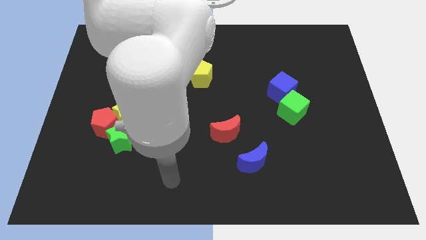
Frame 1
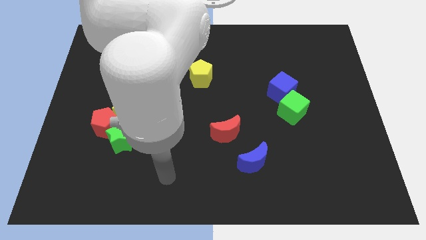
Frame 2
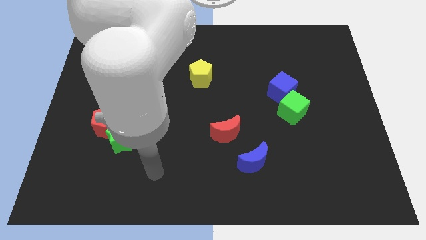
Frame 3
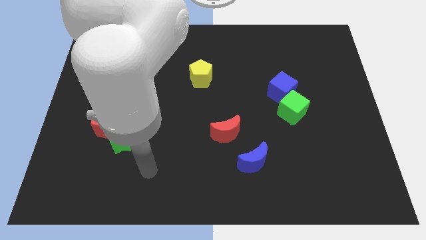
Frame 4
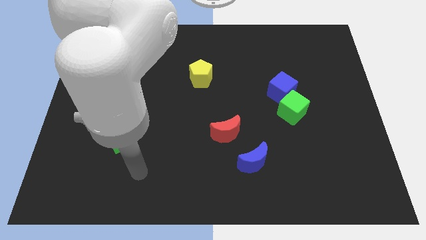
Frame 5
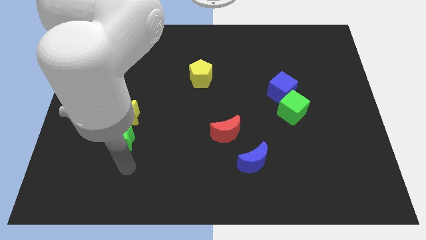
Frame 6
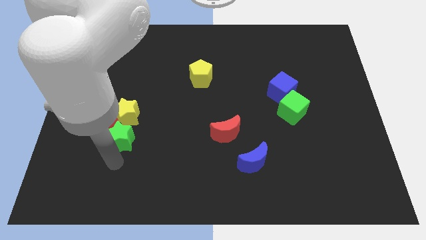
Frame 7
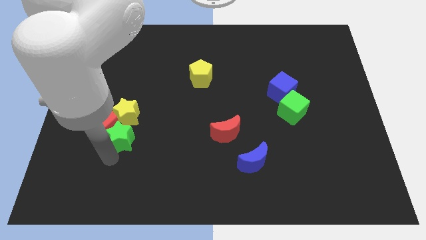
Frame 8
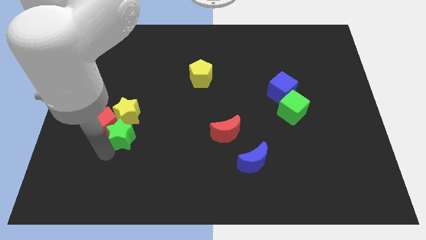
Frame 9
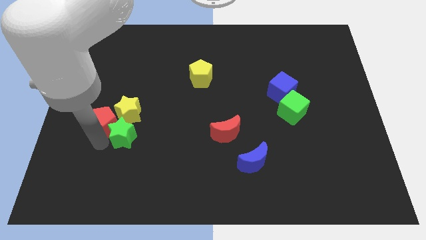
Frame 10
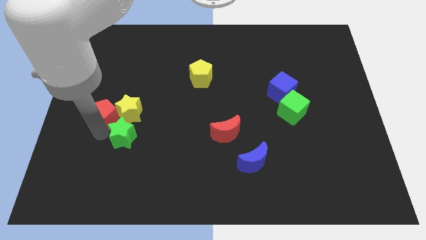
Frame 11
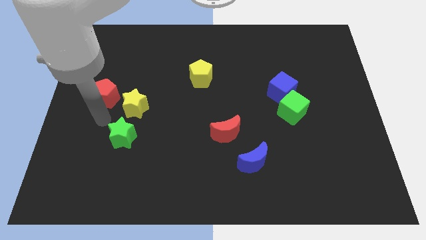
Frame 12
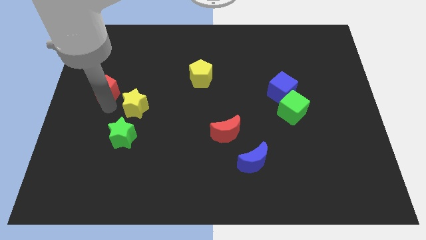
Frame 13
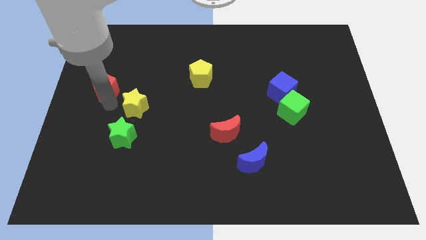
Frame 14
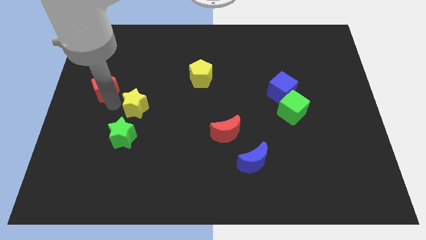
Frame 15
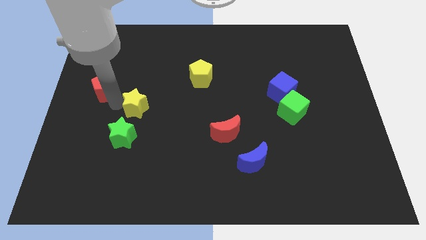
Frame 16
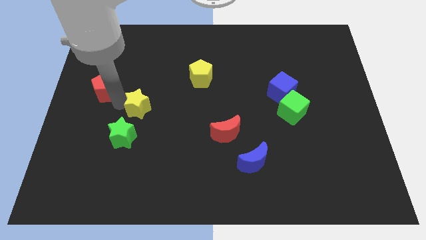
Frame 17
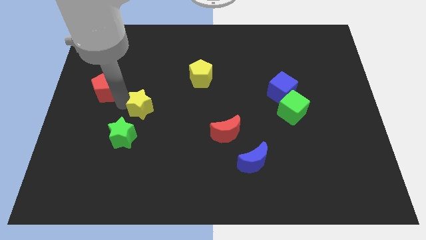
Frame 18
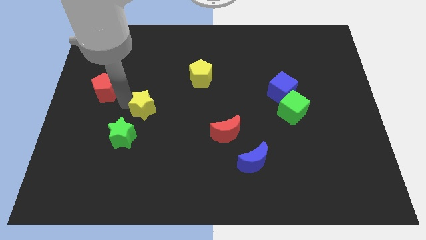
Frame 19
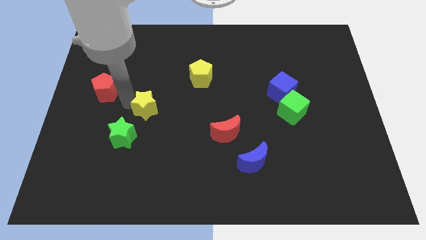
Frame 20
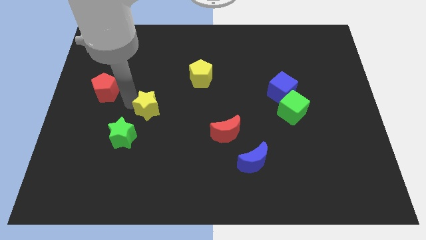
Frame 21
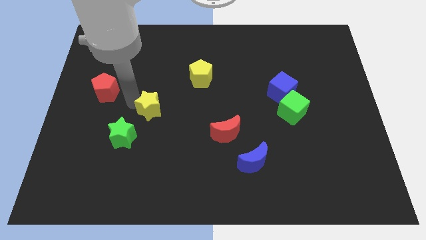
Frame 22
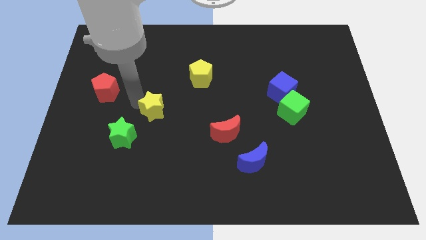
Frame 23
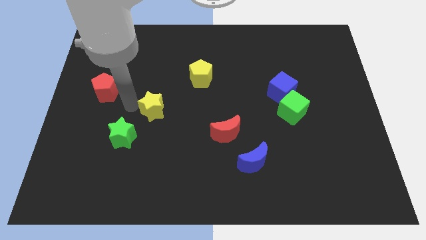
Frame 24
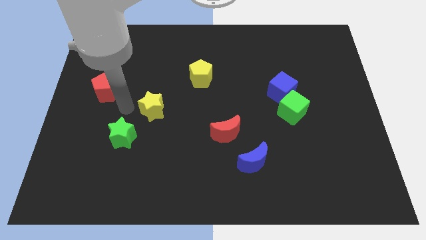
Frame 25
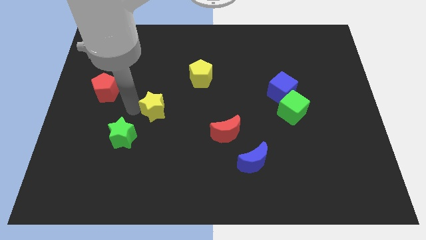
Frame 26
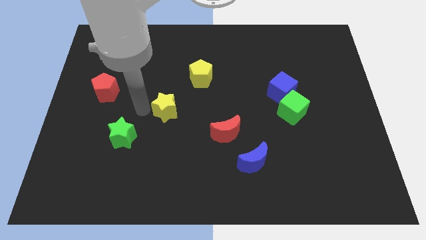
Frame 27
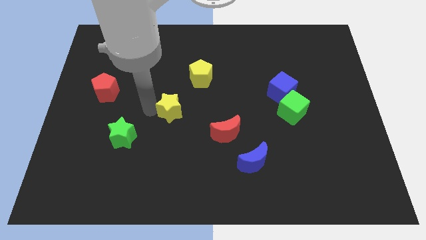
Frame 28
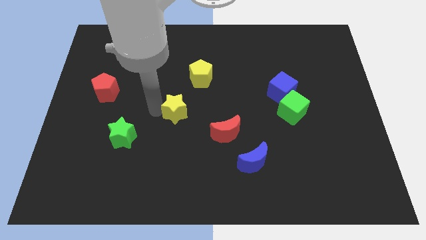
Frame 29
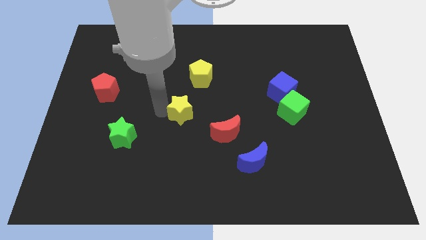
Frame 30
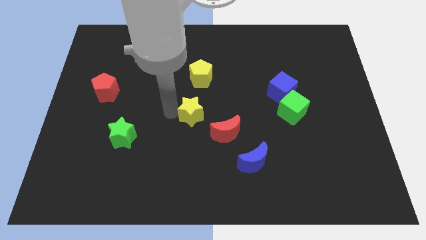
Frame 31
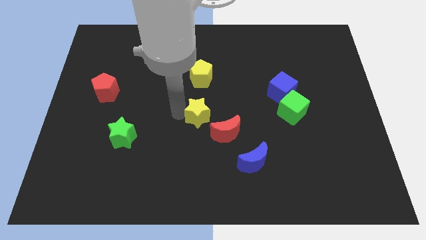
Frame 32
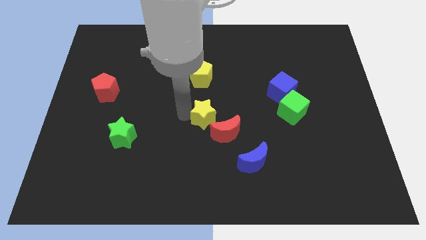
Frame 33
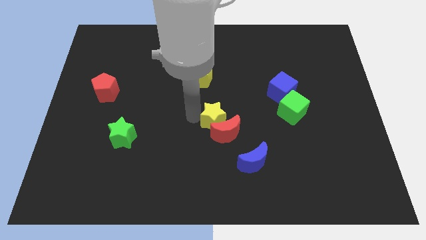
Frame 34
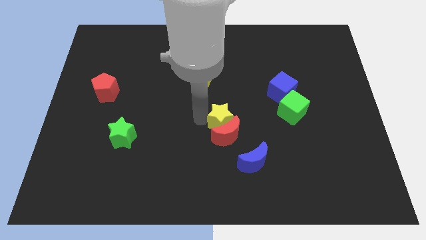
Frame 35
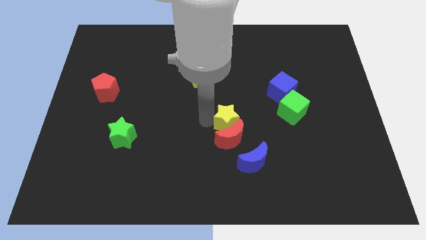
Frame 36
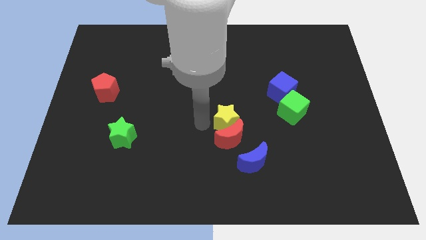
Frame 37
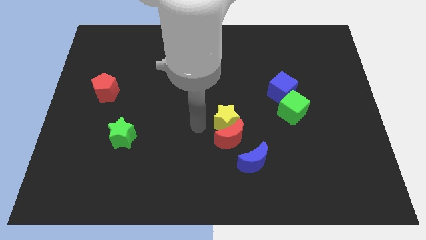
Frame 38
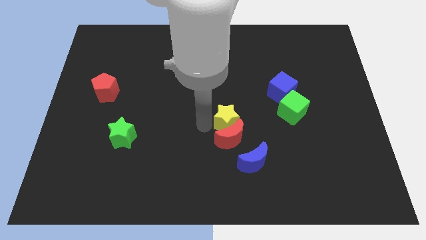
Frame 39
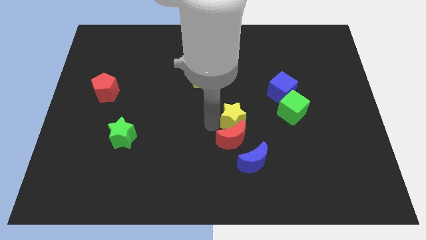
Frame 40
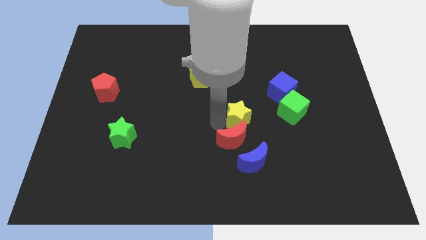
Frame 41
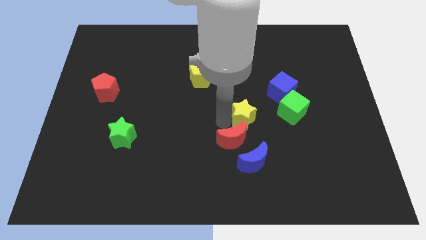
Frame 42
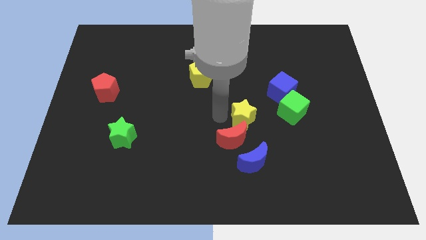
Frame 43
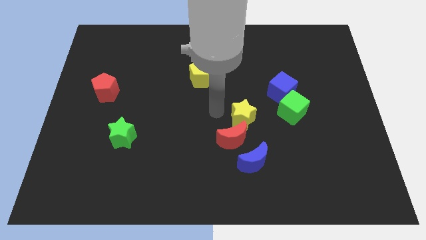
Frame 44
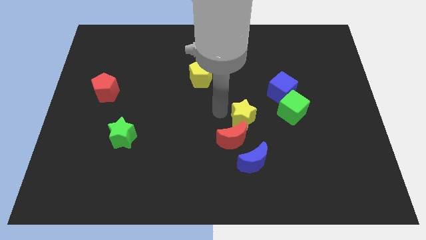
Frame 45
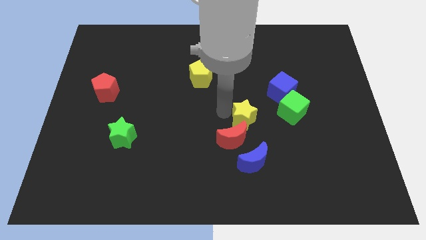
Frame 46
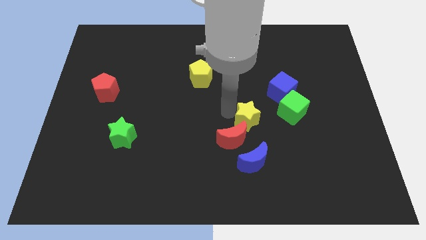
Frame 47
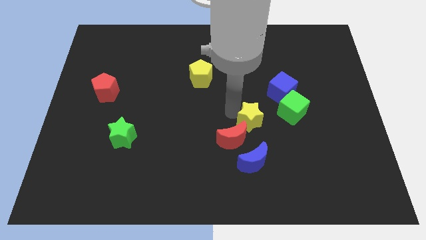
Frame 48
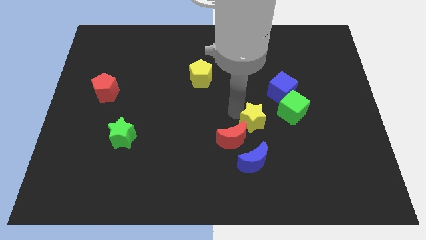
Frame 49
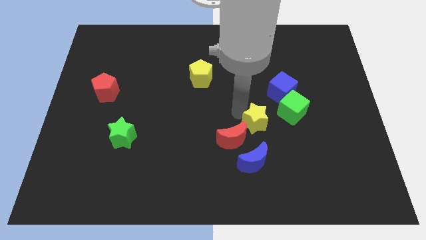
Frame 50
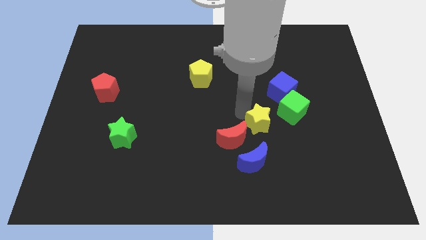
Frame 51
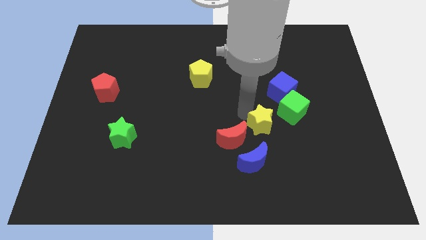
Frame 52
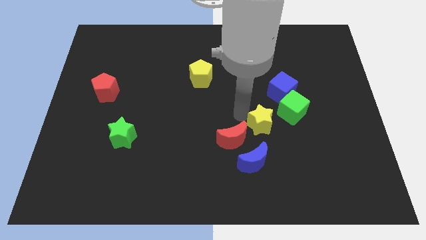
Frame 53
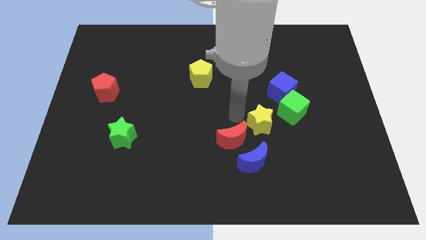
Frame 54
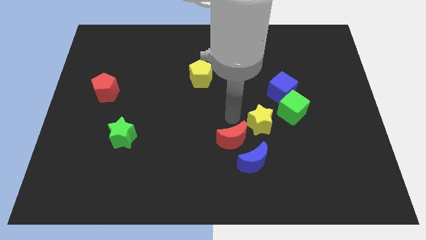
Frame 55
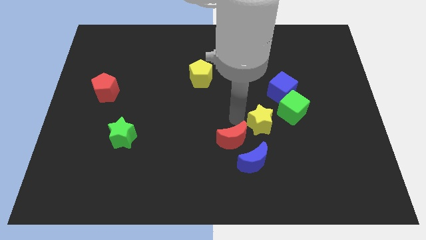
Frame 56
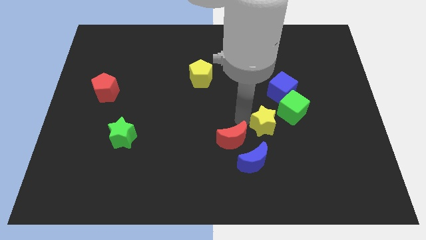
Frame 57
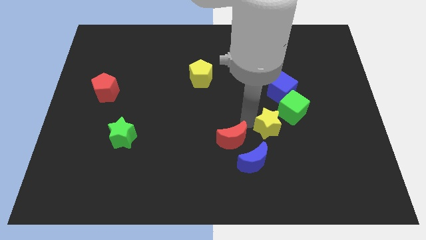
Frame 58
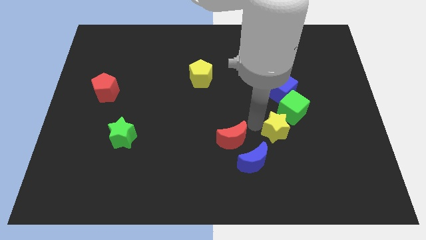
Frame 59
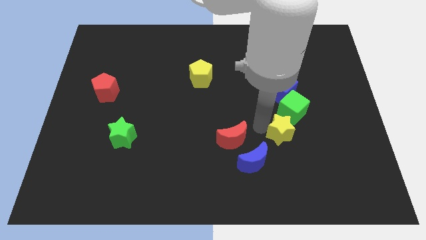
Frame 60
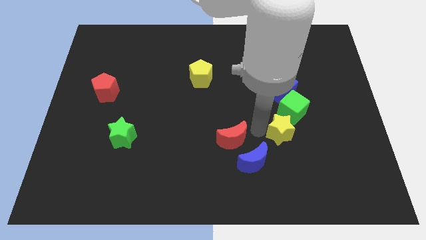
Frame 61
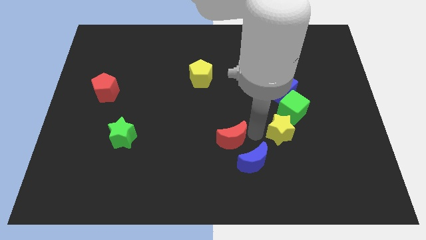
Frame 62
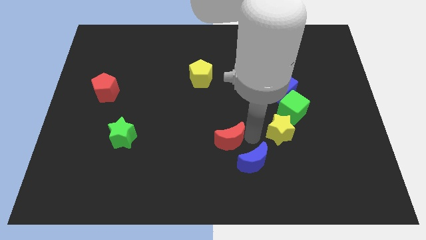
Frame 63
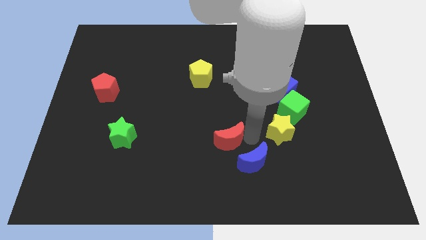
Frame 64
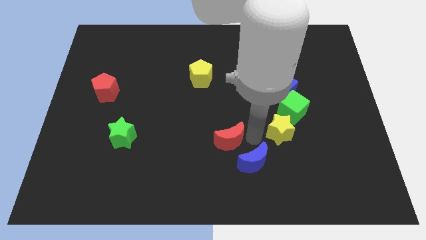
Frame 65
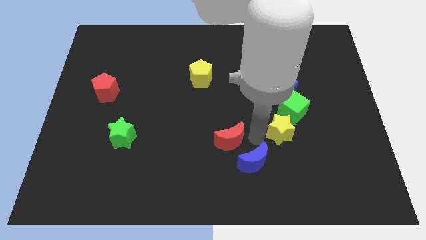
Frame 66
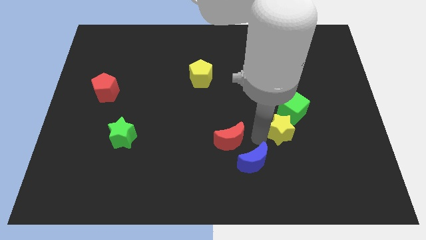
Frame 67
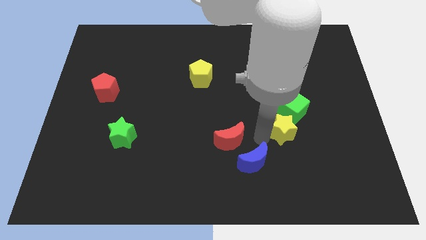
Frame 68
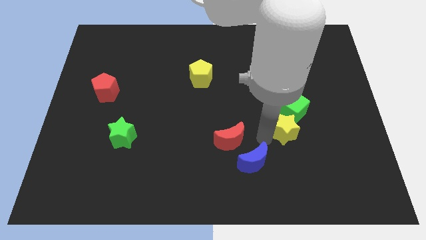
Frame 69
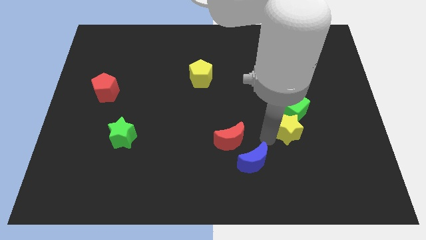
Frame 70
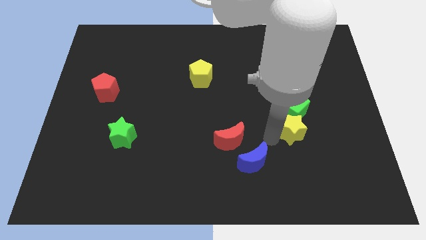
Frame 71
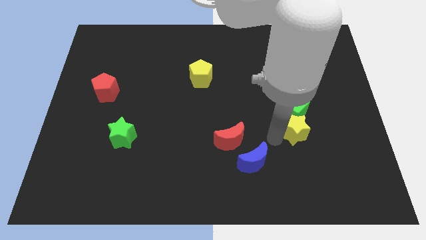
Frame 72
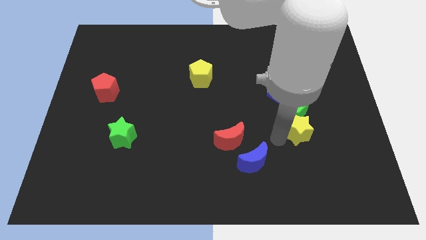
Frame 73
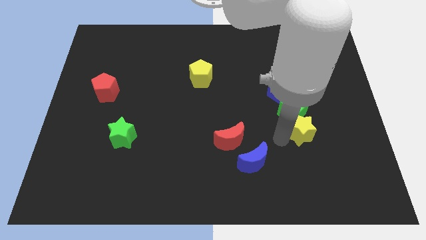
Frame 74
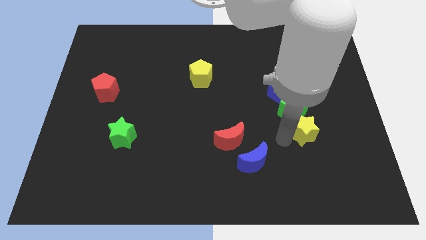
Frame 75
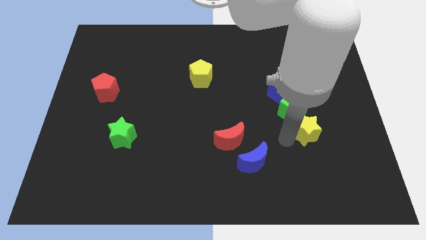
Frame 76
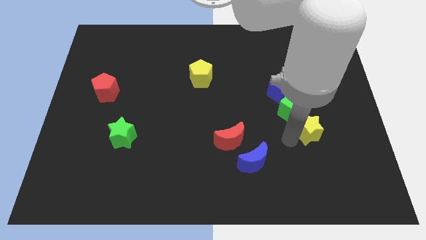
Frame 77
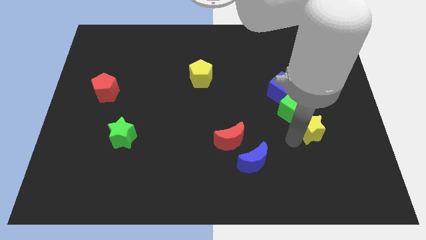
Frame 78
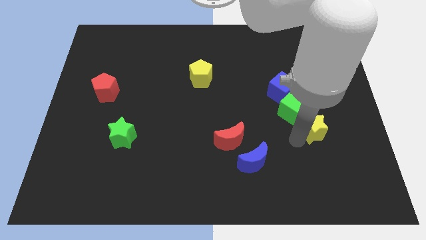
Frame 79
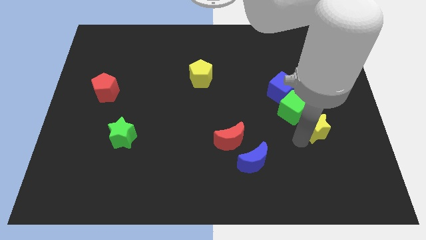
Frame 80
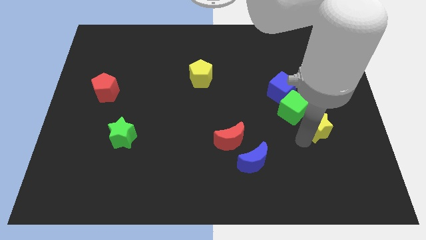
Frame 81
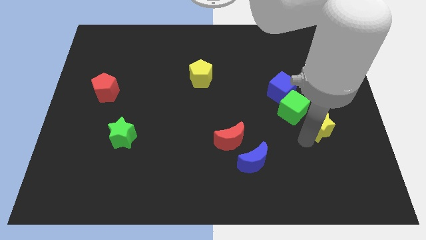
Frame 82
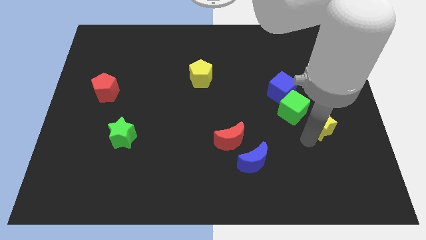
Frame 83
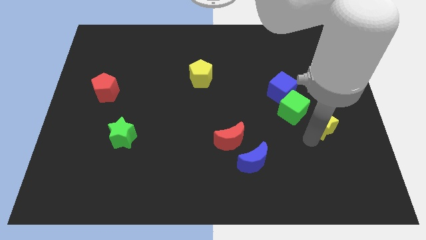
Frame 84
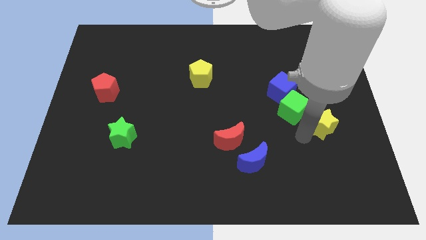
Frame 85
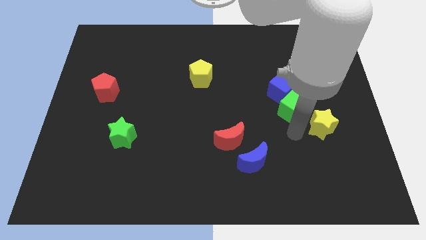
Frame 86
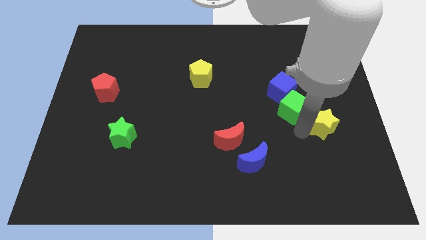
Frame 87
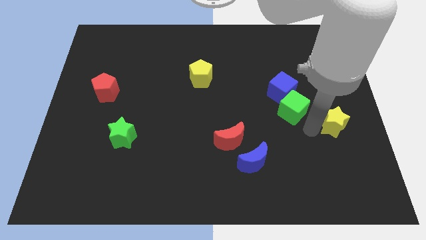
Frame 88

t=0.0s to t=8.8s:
push the yellow star to the right side of the board
